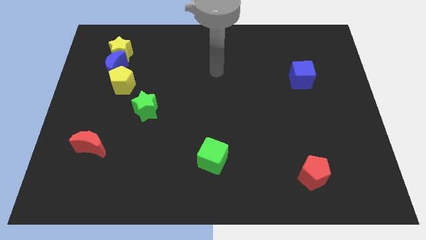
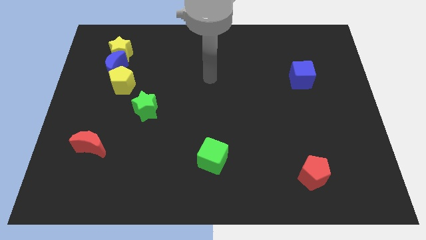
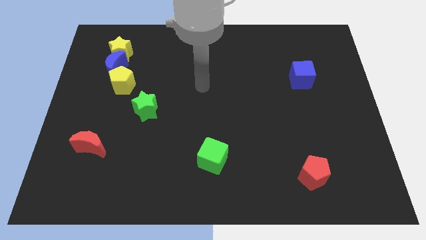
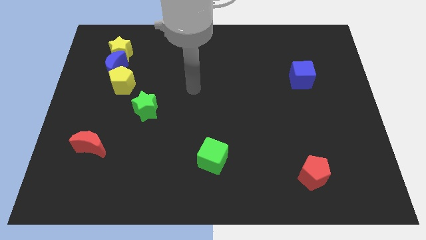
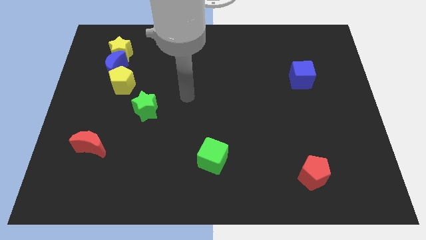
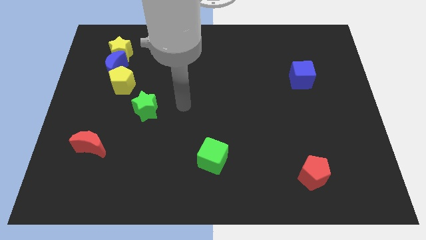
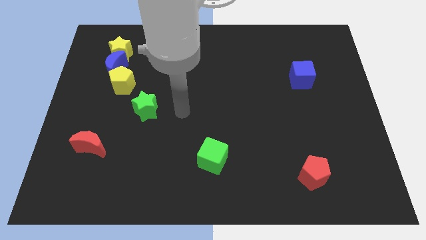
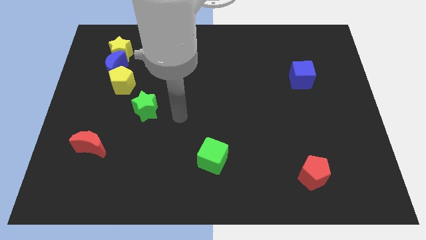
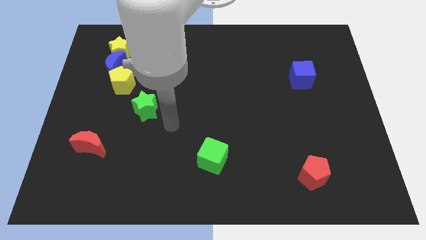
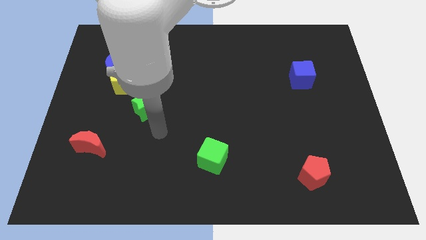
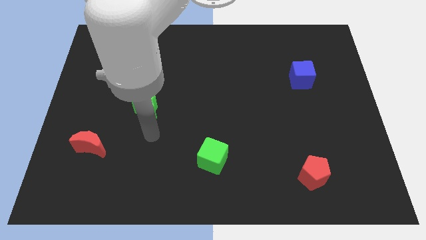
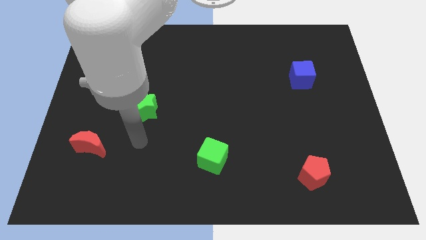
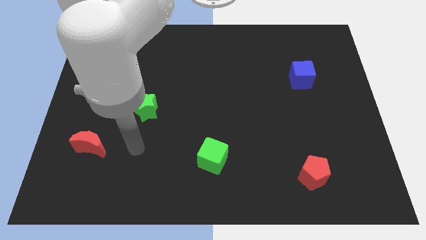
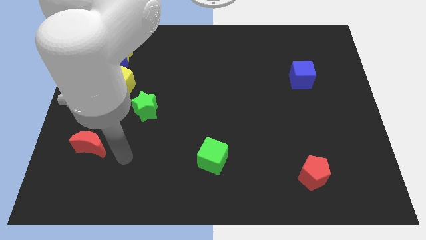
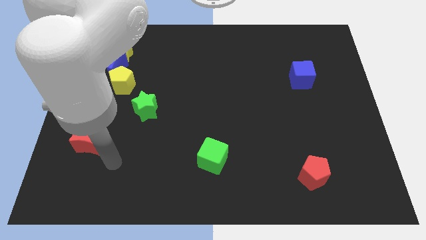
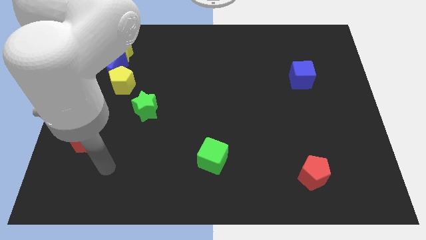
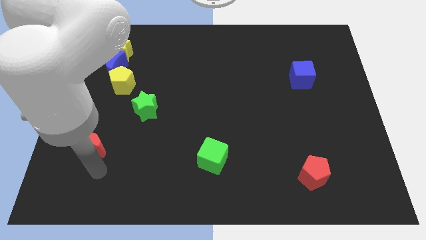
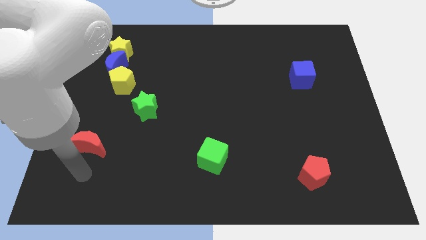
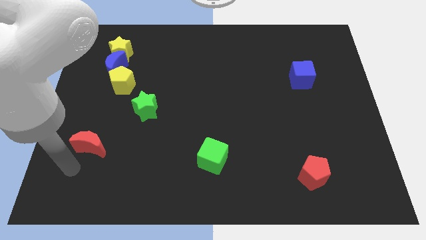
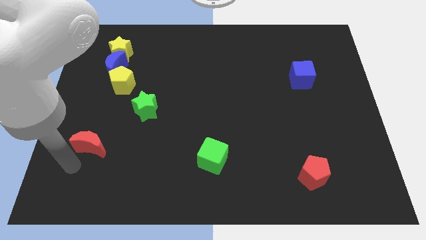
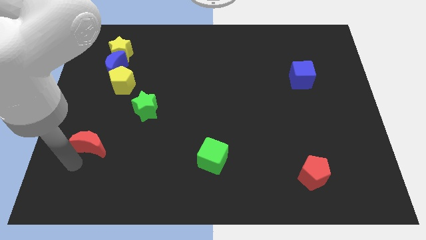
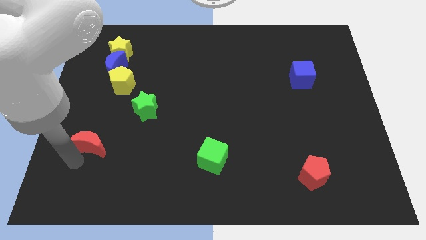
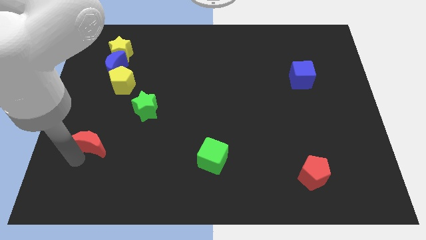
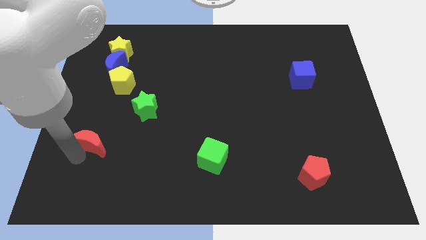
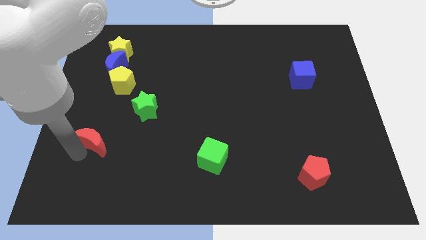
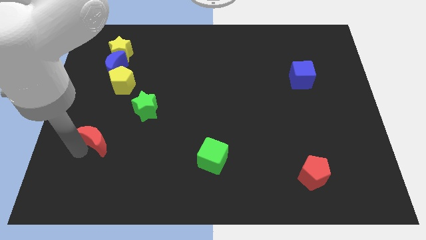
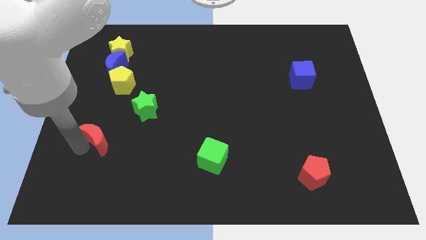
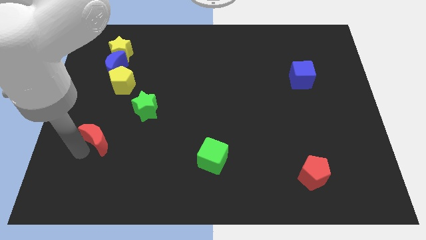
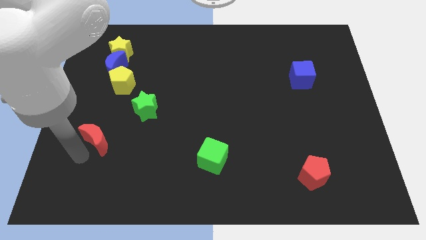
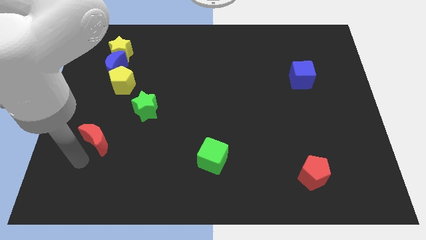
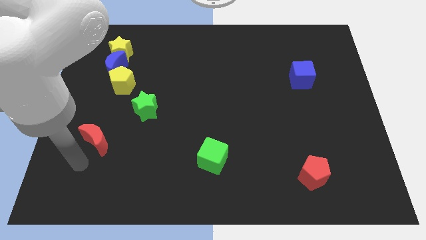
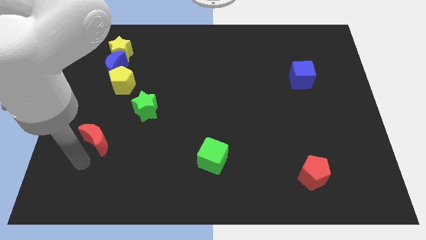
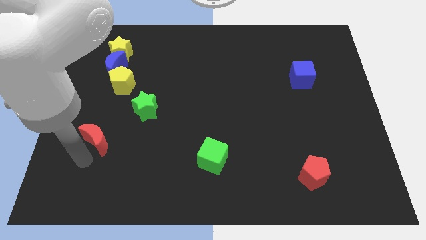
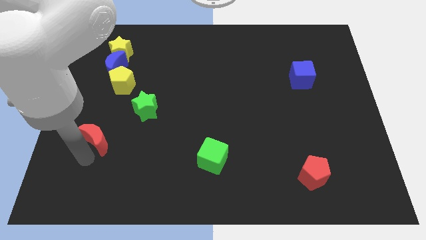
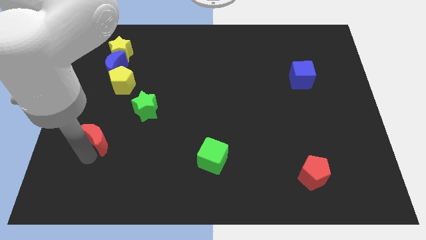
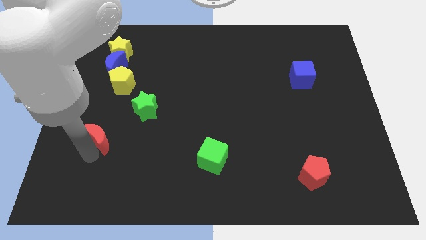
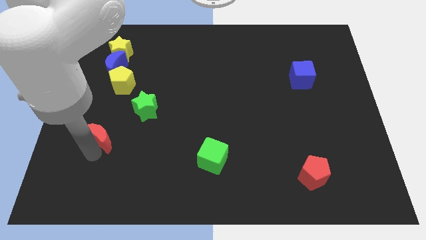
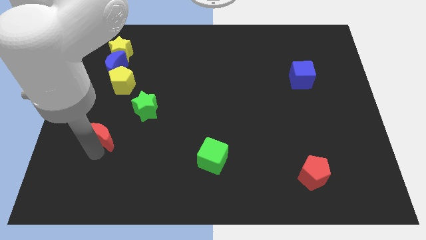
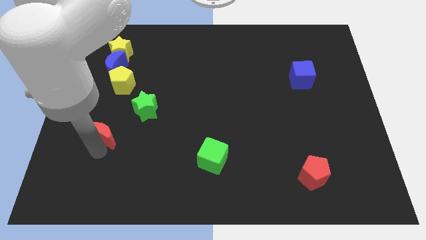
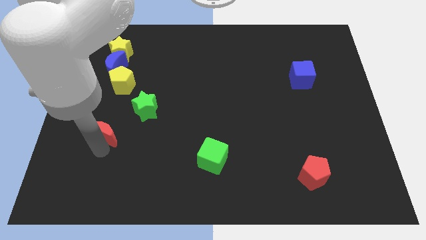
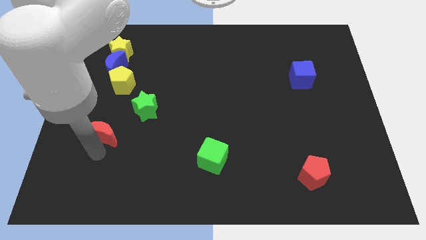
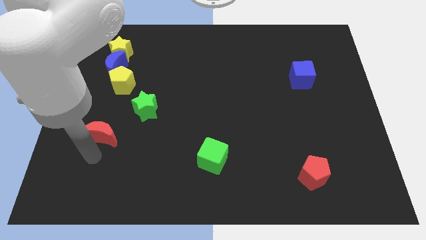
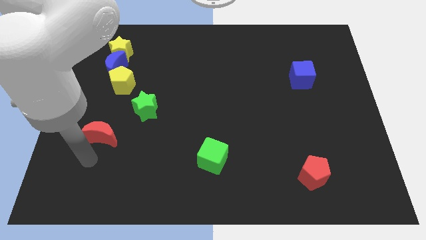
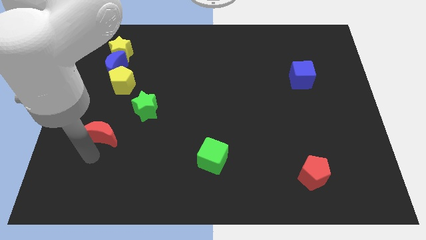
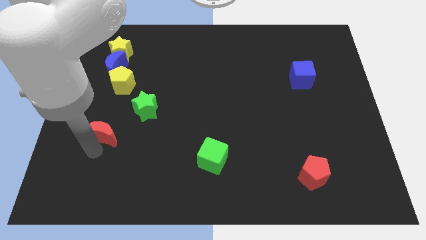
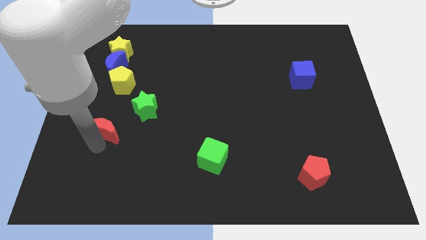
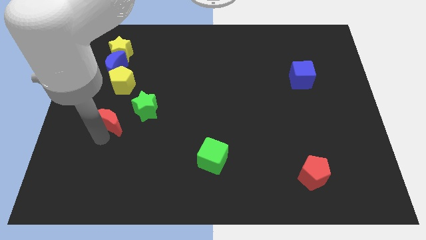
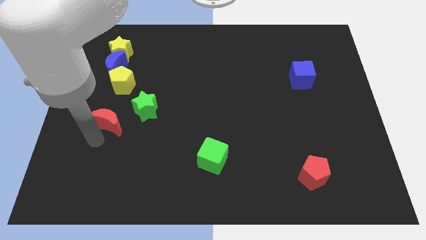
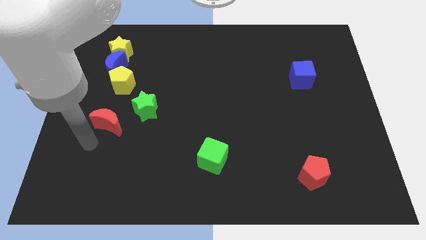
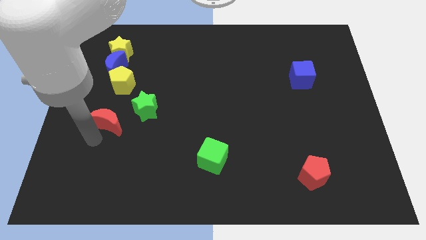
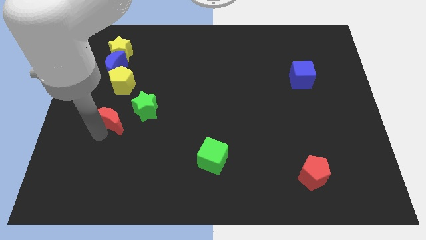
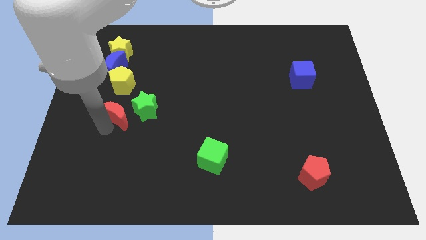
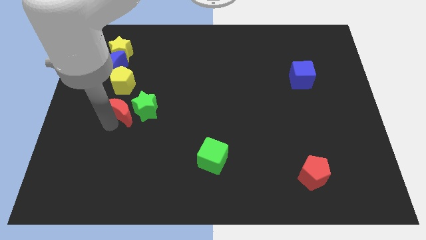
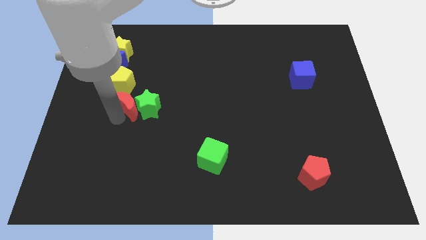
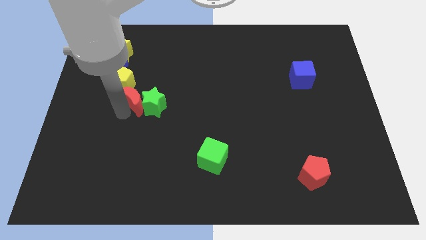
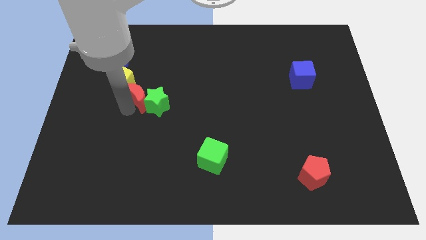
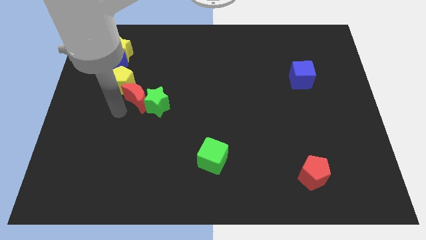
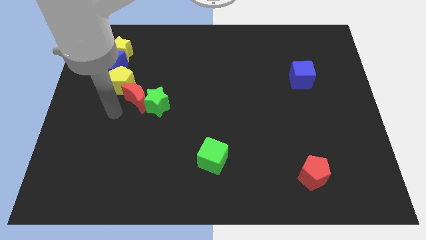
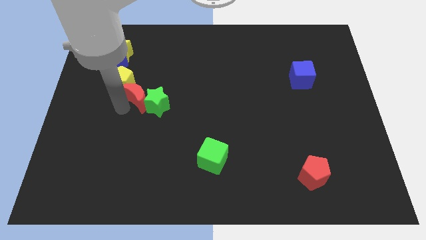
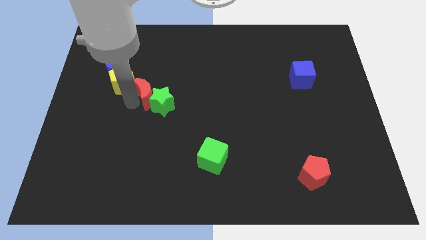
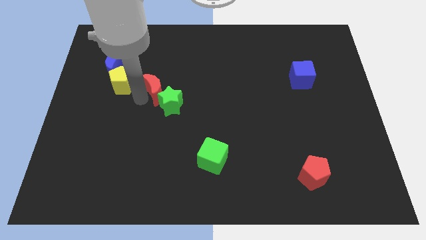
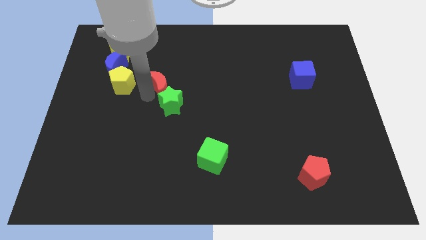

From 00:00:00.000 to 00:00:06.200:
move the red moon up and then to the right

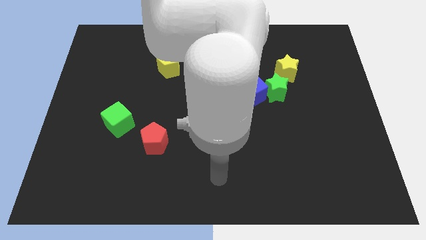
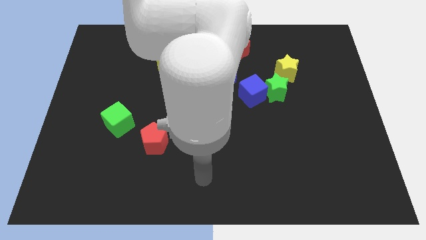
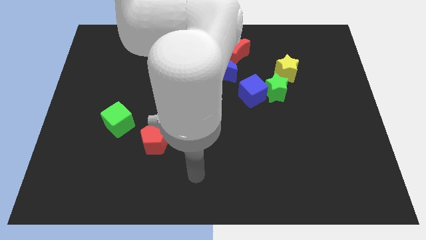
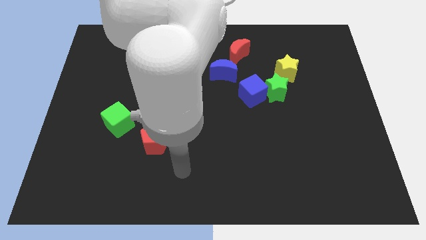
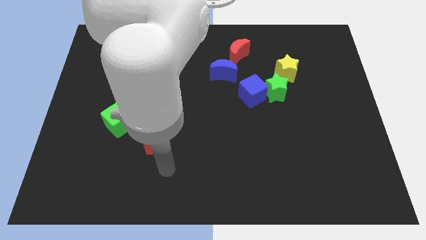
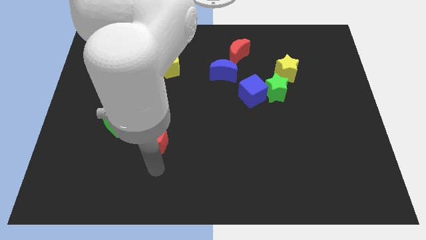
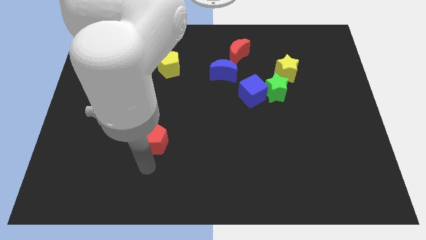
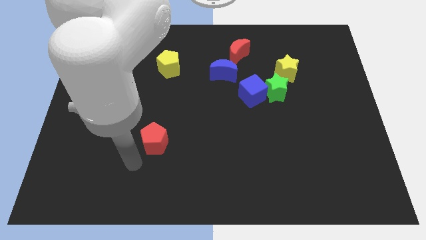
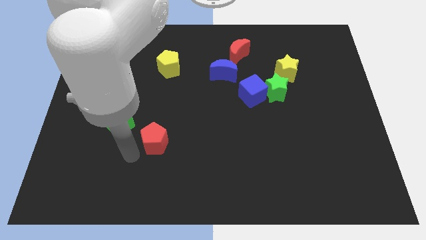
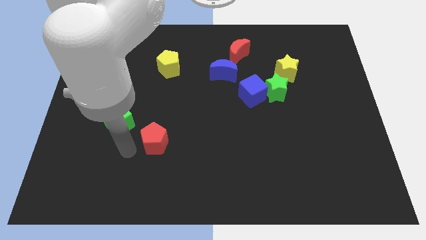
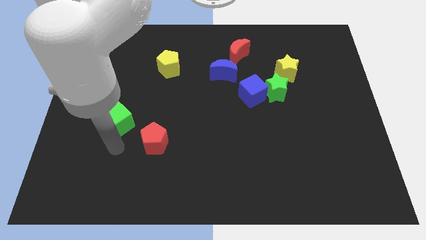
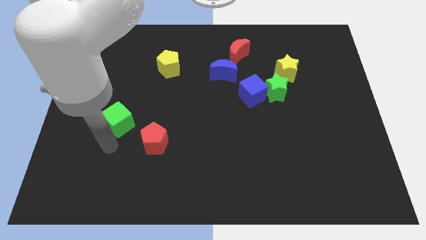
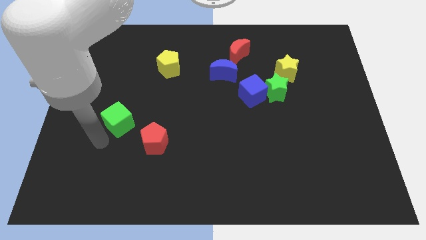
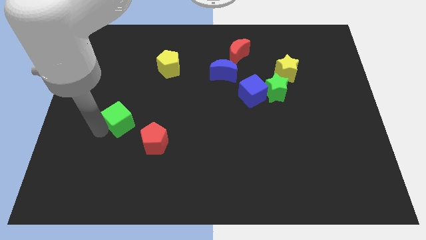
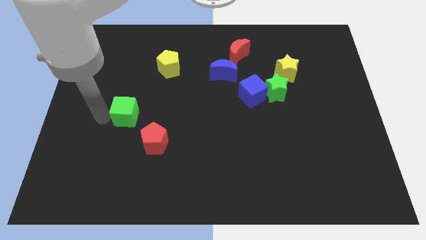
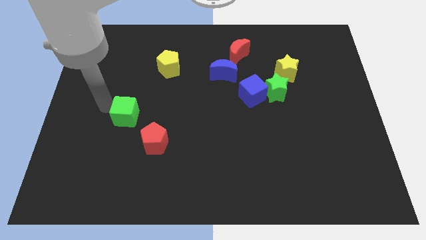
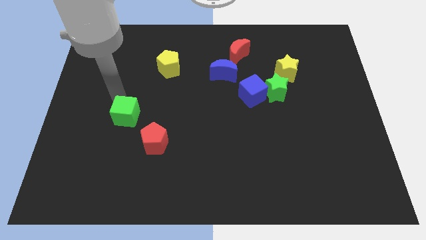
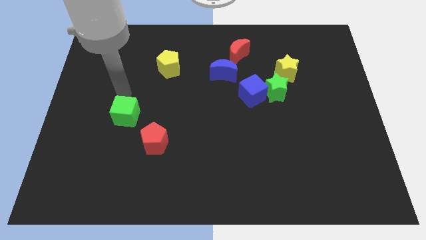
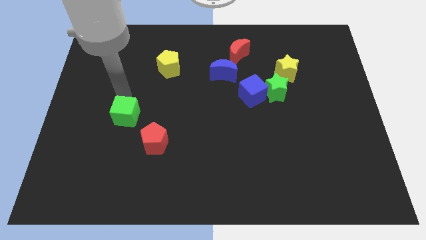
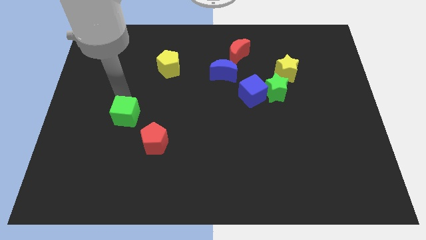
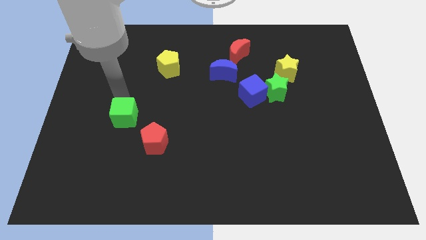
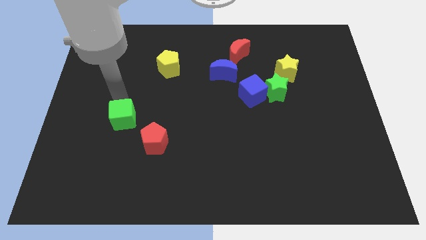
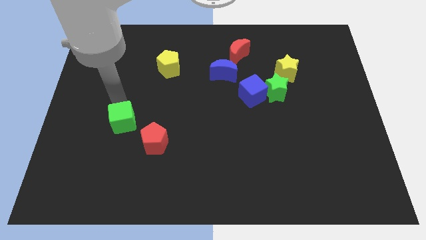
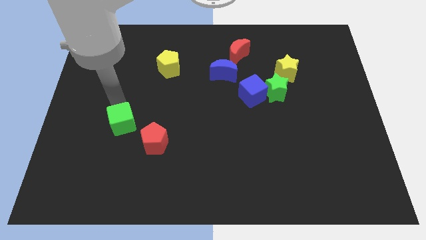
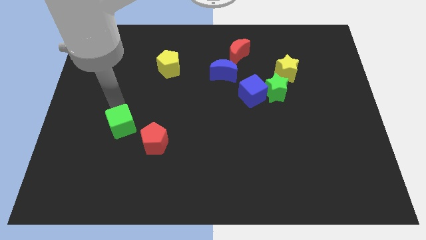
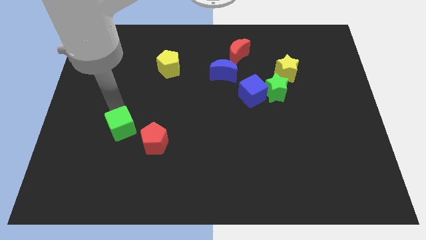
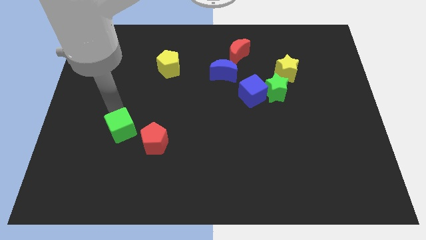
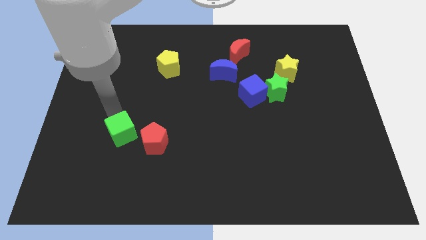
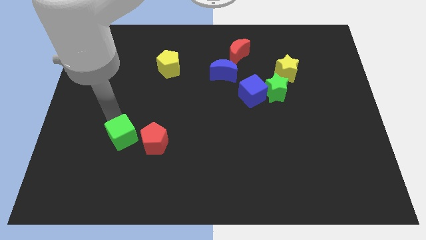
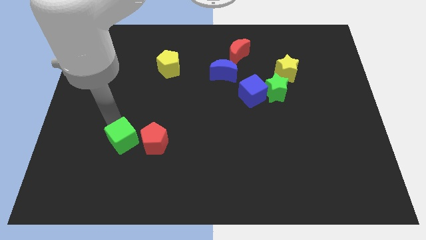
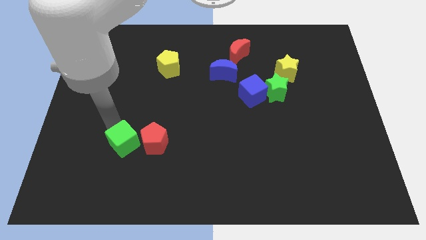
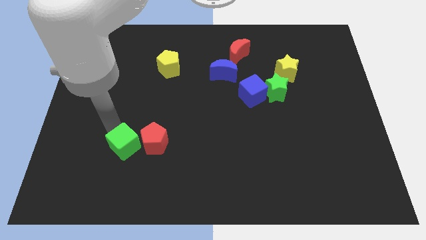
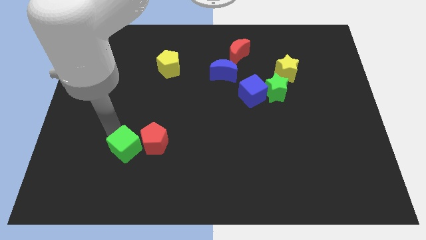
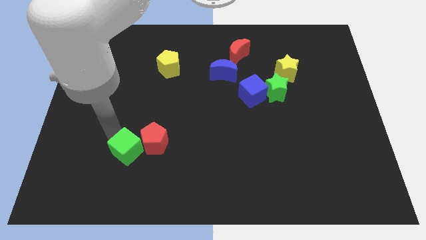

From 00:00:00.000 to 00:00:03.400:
slightly slide the green cube diagonally downwards and right
